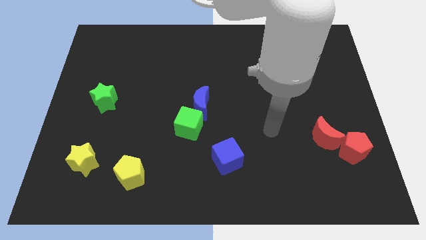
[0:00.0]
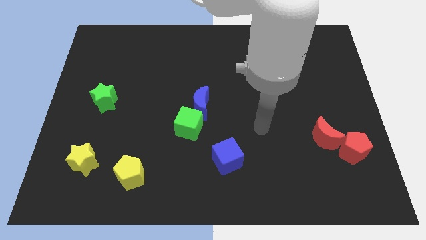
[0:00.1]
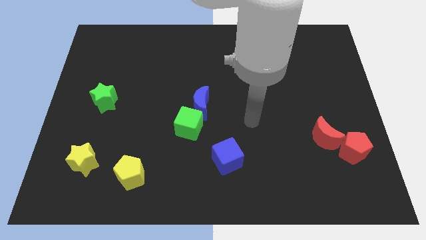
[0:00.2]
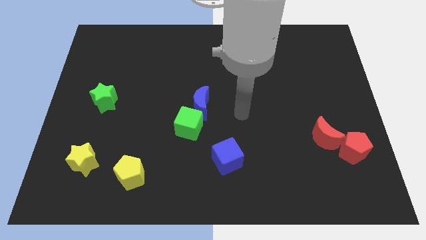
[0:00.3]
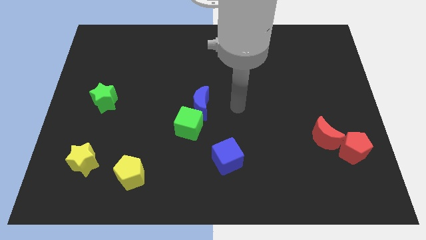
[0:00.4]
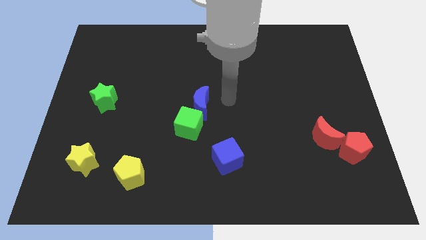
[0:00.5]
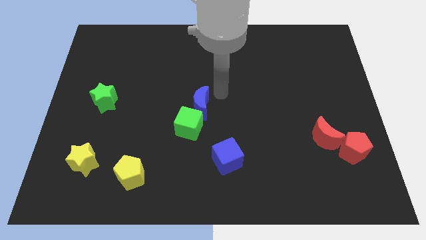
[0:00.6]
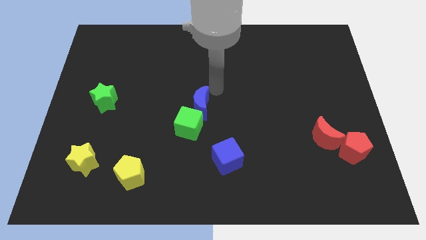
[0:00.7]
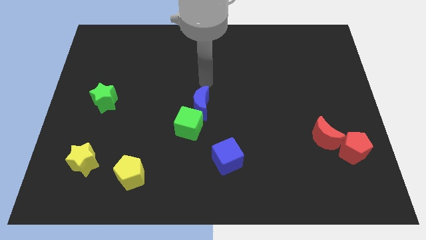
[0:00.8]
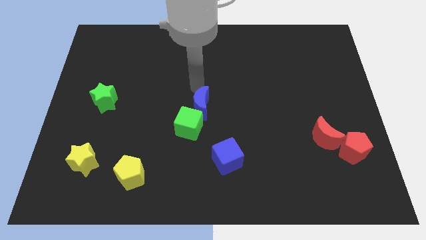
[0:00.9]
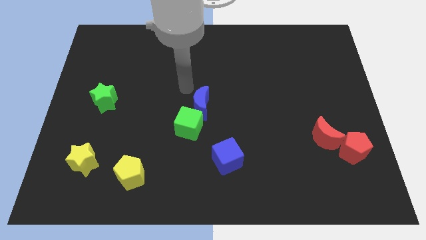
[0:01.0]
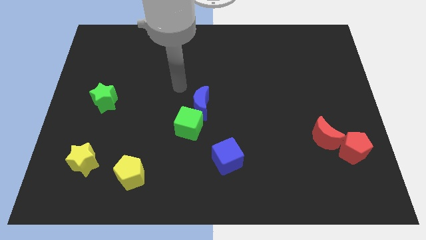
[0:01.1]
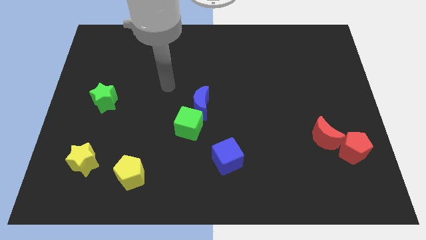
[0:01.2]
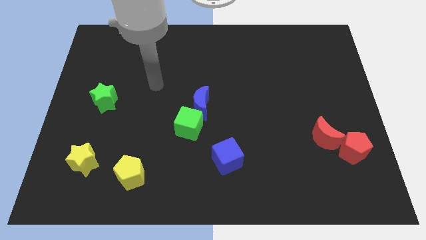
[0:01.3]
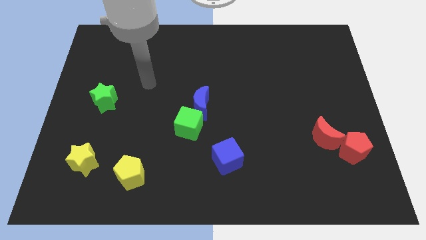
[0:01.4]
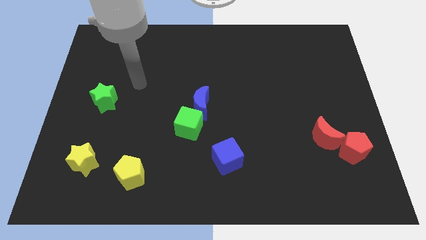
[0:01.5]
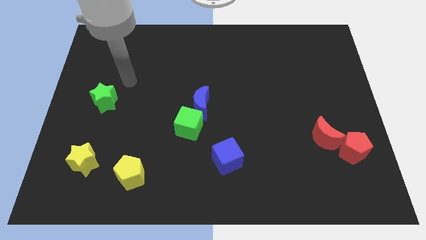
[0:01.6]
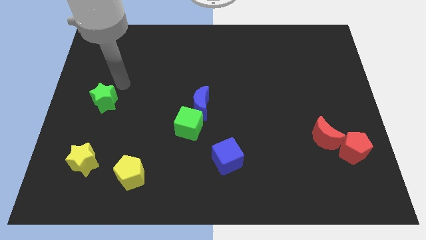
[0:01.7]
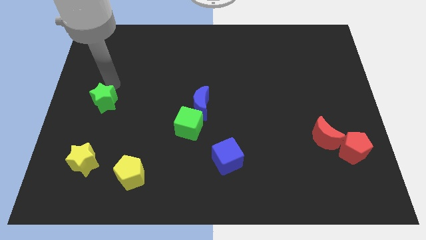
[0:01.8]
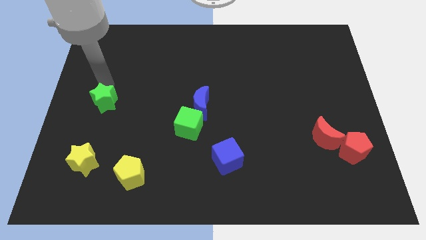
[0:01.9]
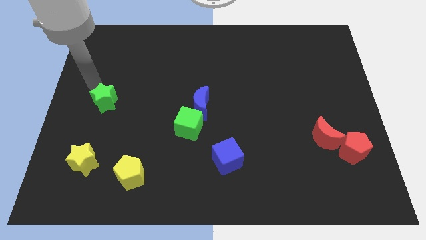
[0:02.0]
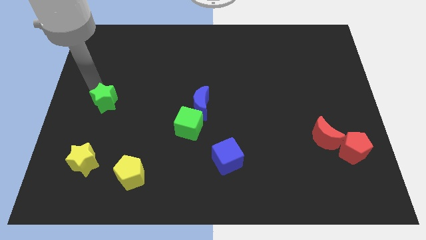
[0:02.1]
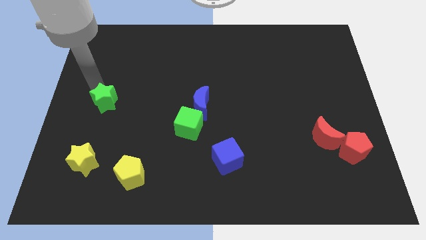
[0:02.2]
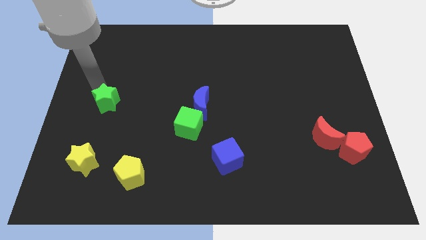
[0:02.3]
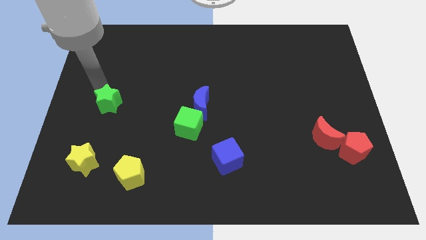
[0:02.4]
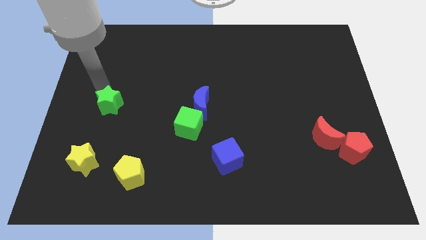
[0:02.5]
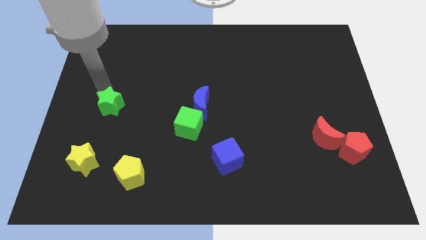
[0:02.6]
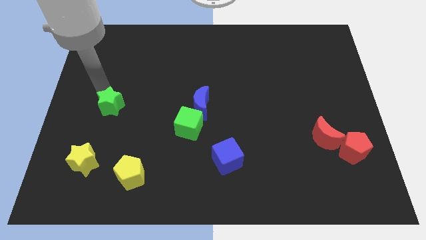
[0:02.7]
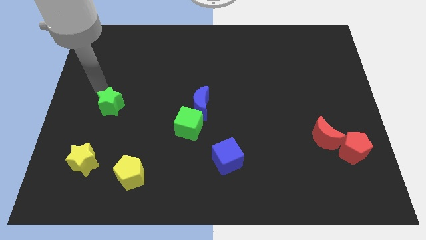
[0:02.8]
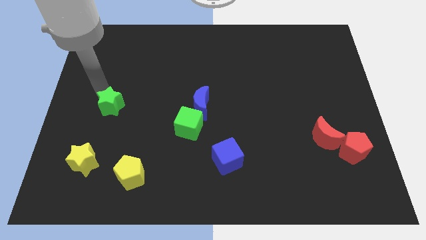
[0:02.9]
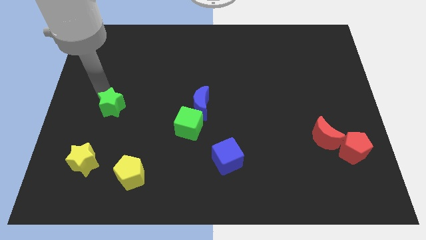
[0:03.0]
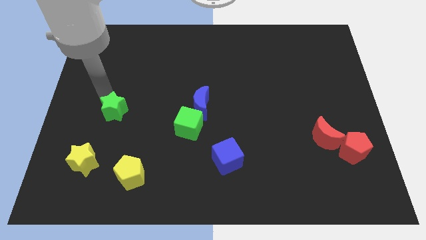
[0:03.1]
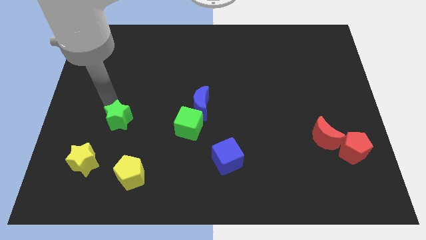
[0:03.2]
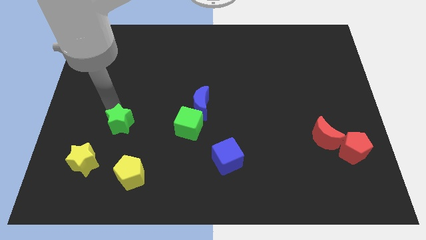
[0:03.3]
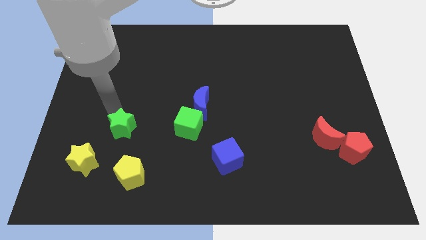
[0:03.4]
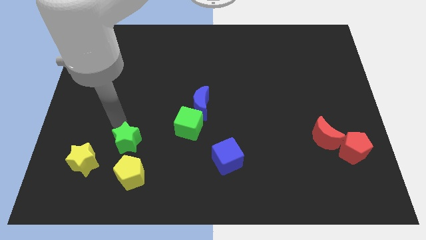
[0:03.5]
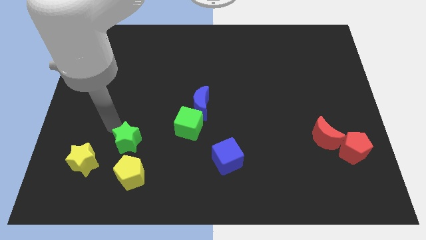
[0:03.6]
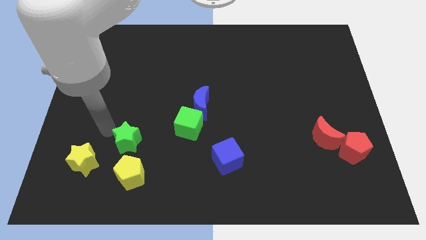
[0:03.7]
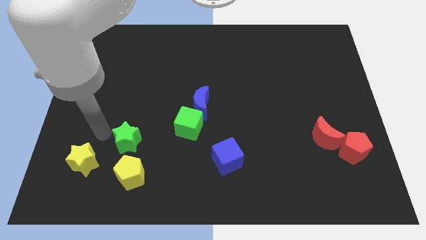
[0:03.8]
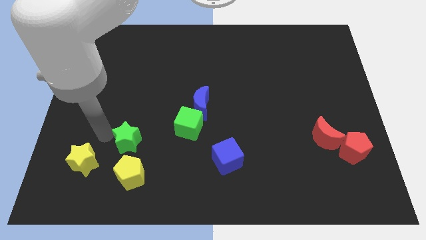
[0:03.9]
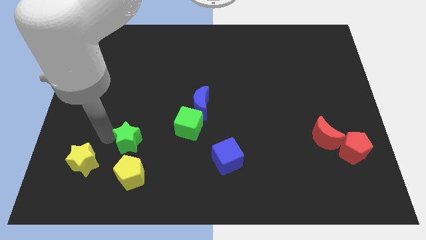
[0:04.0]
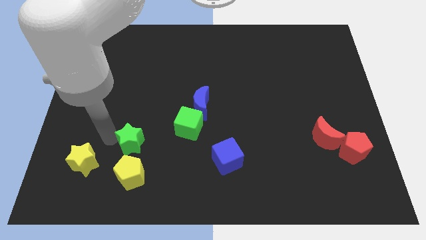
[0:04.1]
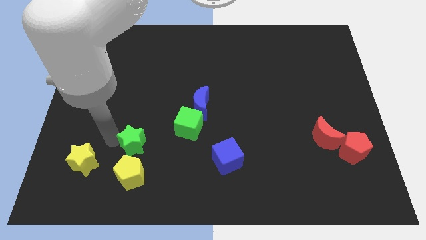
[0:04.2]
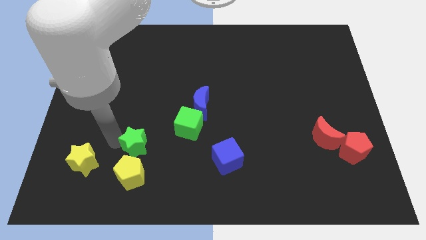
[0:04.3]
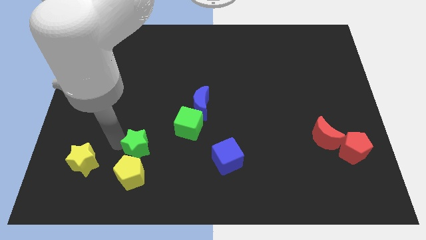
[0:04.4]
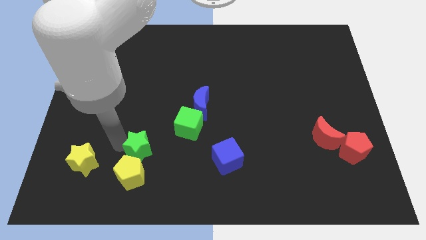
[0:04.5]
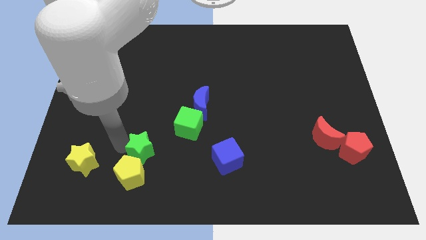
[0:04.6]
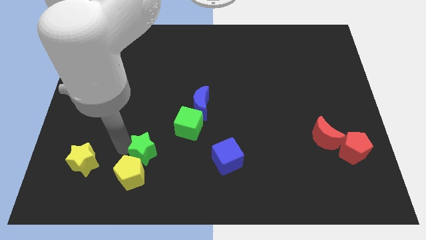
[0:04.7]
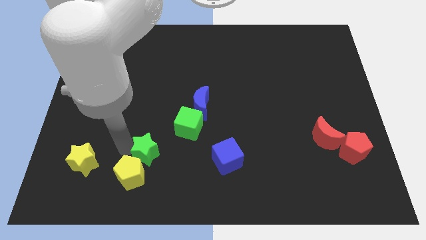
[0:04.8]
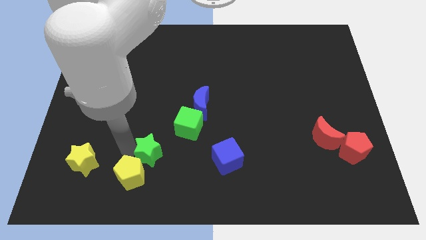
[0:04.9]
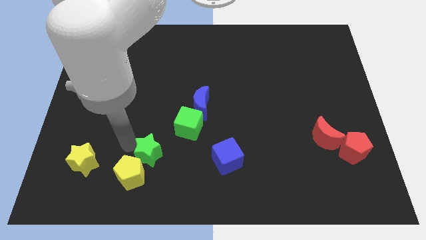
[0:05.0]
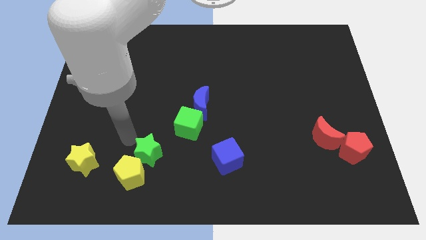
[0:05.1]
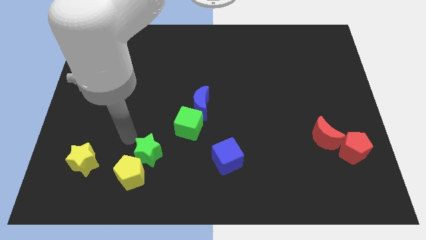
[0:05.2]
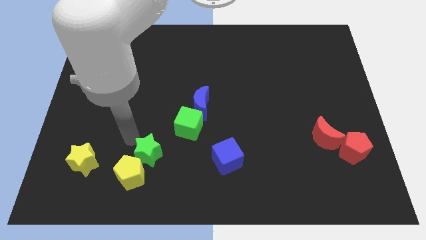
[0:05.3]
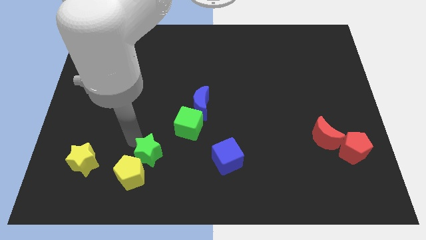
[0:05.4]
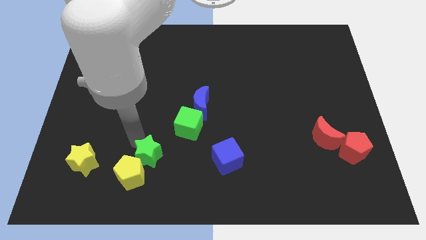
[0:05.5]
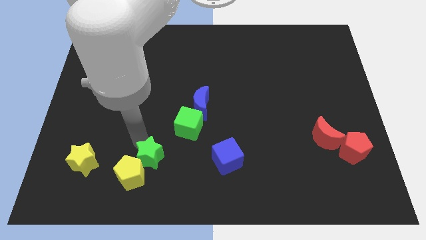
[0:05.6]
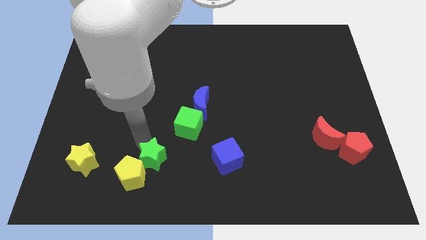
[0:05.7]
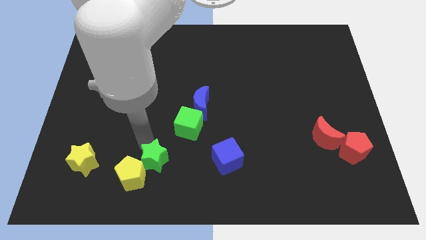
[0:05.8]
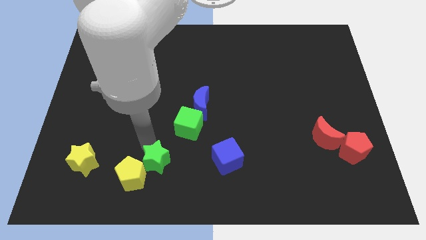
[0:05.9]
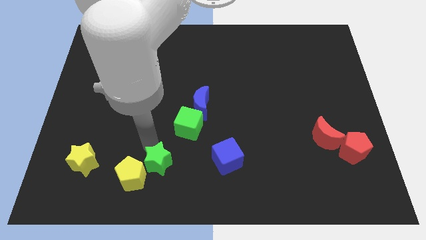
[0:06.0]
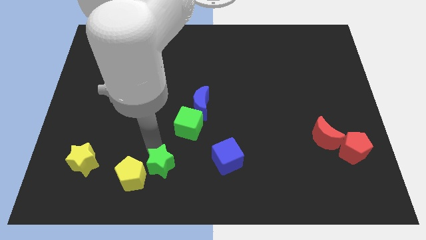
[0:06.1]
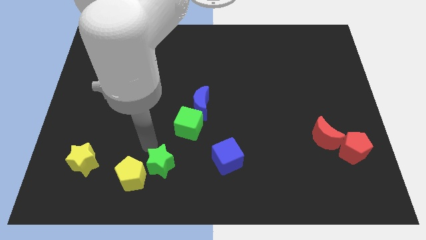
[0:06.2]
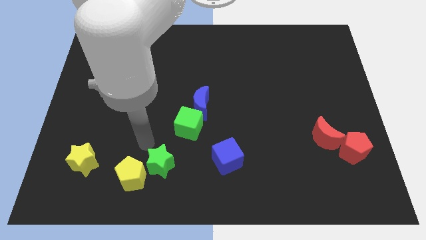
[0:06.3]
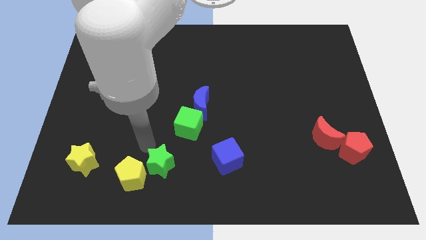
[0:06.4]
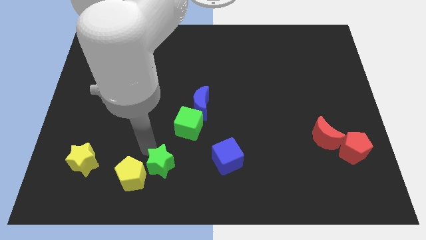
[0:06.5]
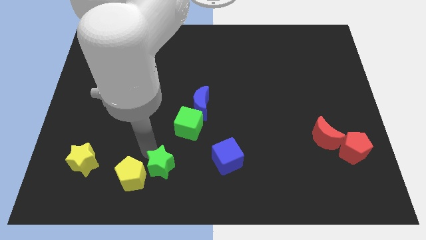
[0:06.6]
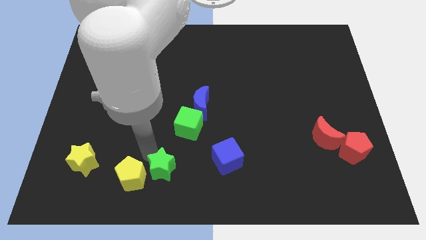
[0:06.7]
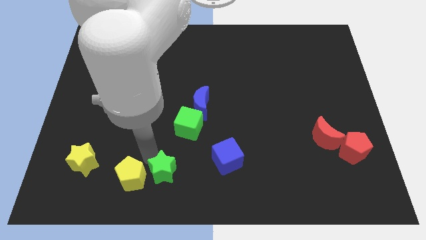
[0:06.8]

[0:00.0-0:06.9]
put the green star to the bottom side
